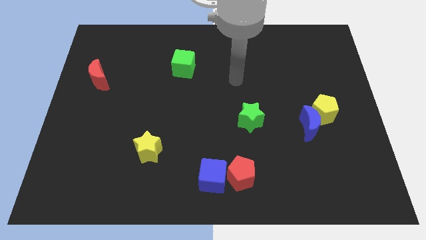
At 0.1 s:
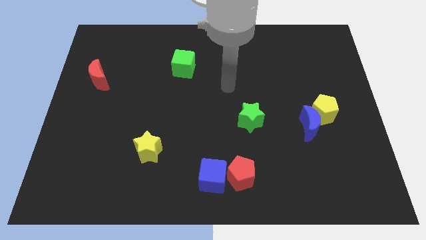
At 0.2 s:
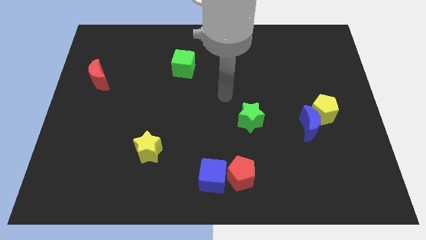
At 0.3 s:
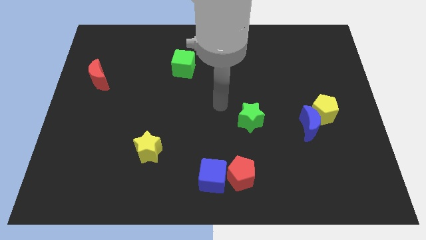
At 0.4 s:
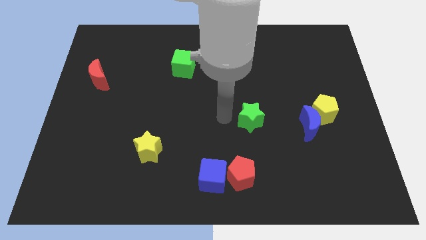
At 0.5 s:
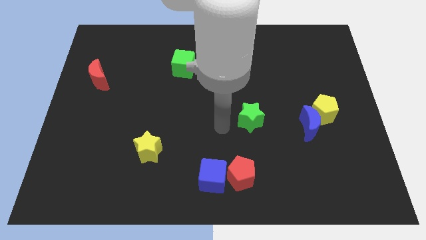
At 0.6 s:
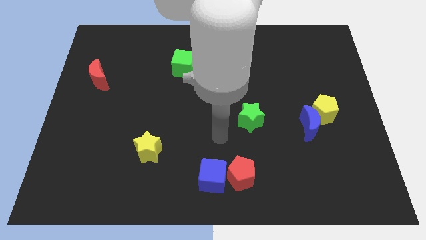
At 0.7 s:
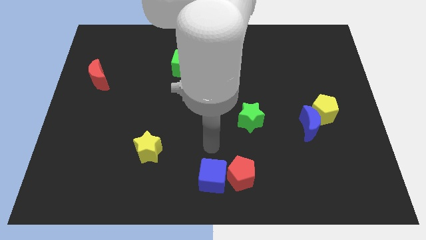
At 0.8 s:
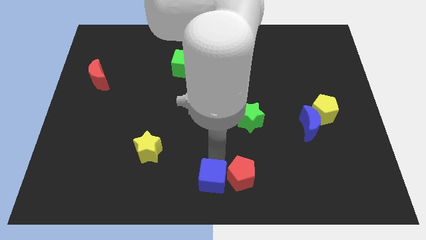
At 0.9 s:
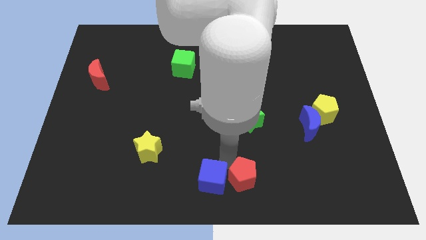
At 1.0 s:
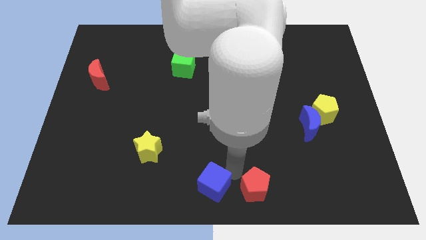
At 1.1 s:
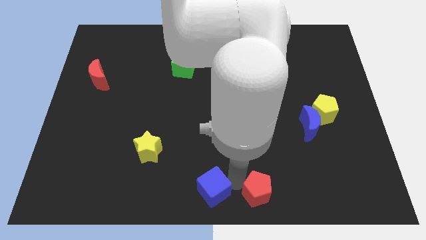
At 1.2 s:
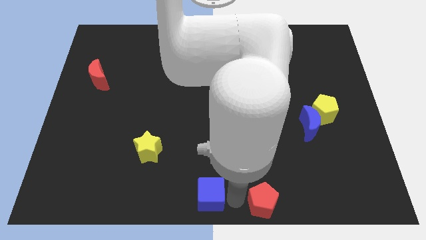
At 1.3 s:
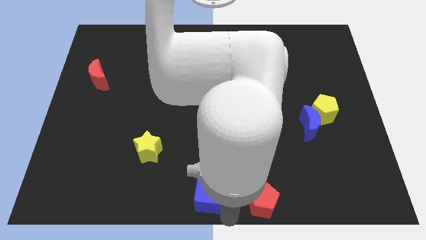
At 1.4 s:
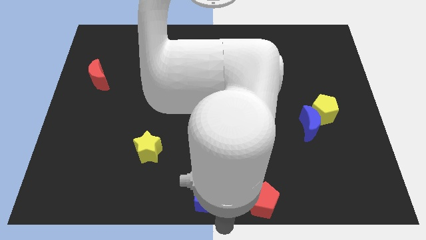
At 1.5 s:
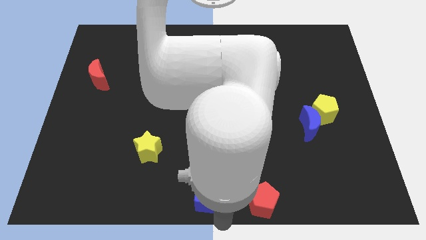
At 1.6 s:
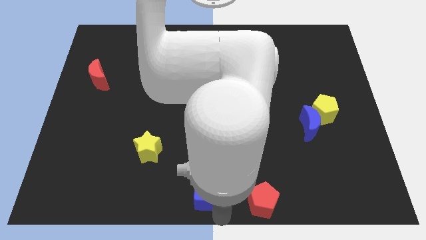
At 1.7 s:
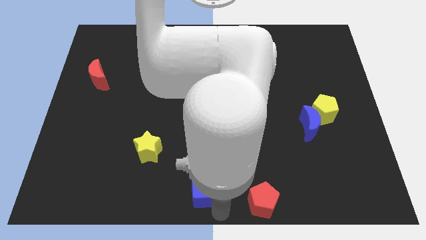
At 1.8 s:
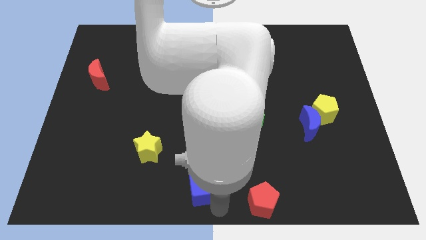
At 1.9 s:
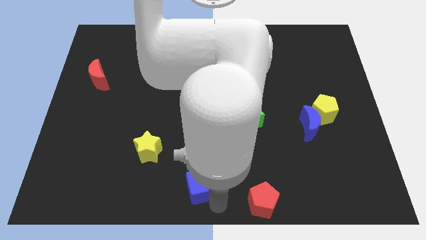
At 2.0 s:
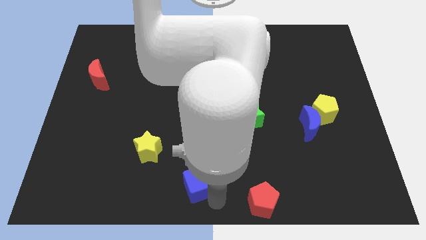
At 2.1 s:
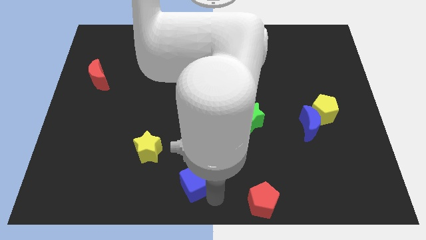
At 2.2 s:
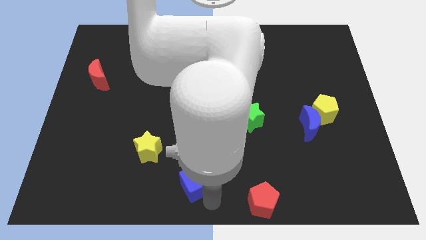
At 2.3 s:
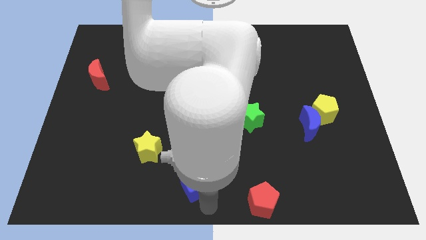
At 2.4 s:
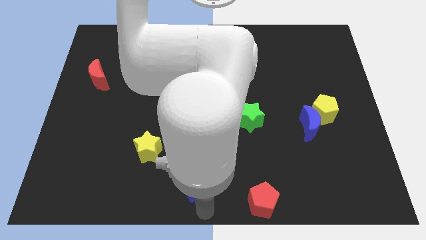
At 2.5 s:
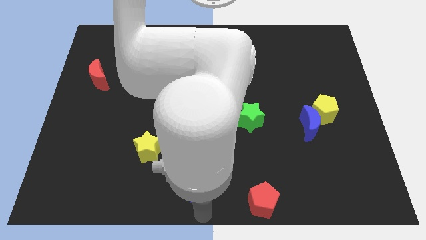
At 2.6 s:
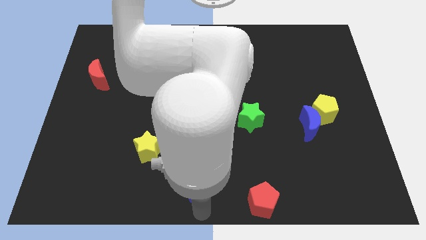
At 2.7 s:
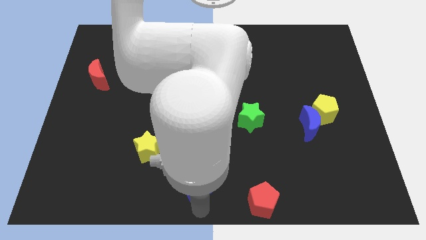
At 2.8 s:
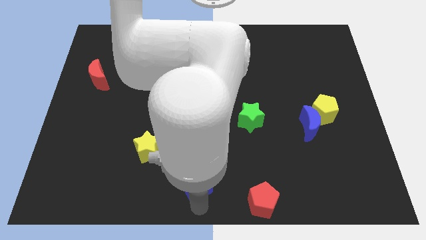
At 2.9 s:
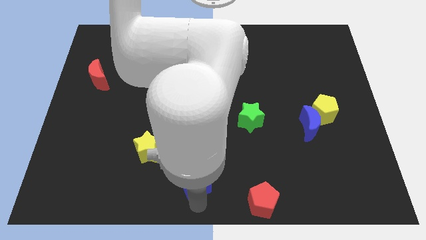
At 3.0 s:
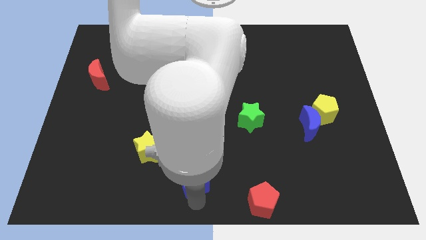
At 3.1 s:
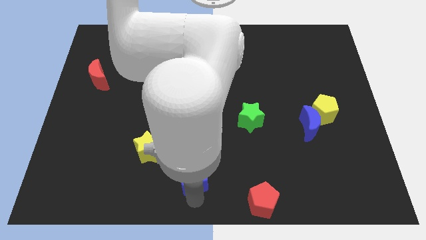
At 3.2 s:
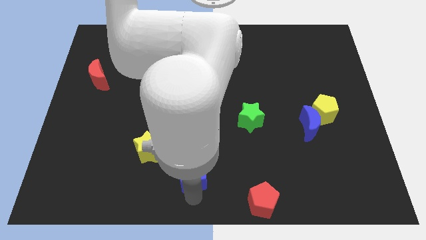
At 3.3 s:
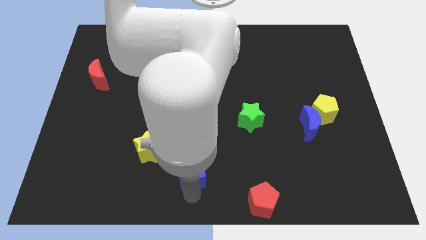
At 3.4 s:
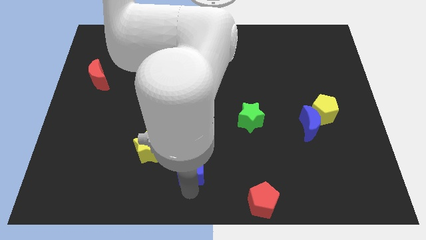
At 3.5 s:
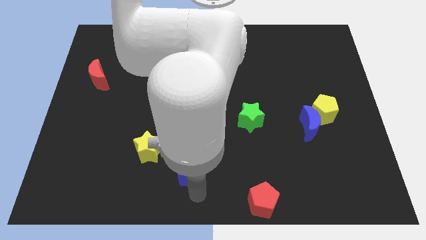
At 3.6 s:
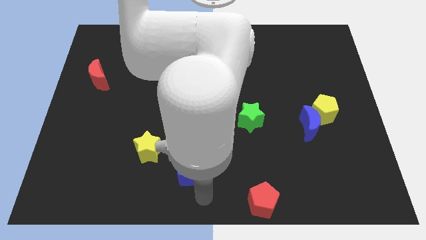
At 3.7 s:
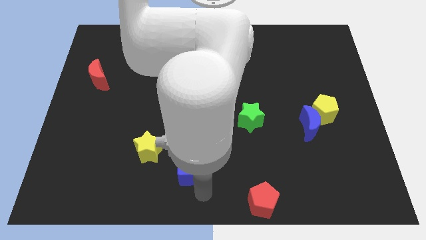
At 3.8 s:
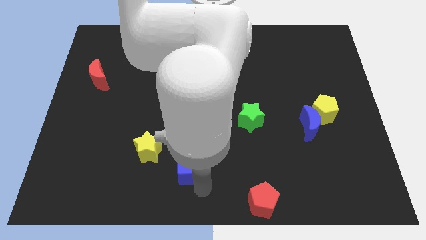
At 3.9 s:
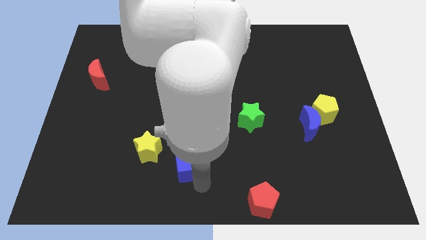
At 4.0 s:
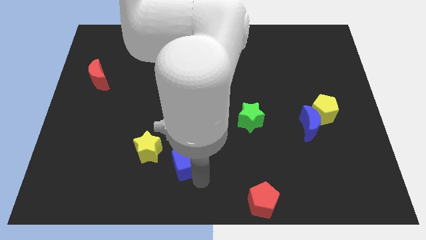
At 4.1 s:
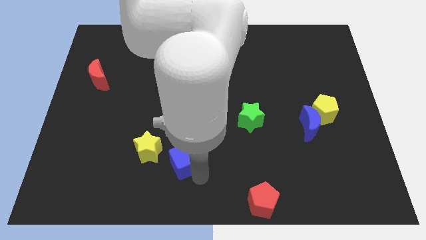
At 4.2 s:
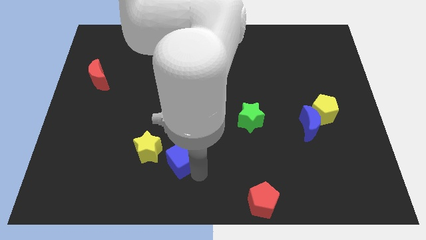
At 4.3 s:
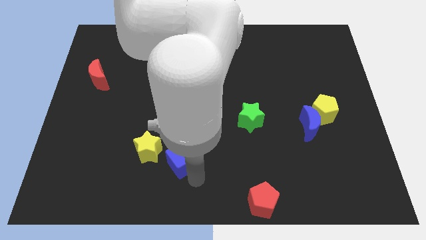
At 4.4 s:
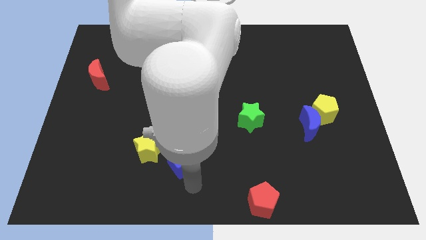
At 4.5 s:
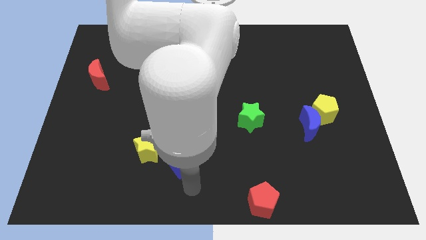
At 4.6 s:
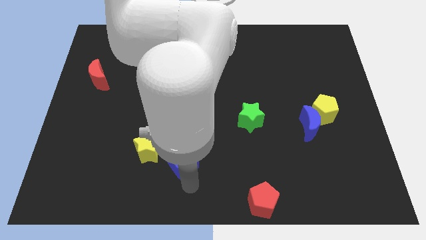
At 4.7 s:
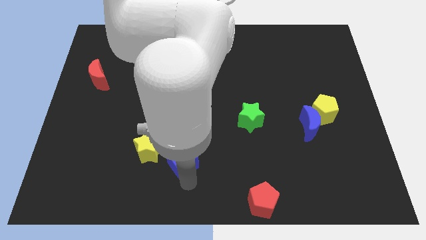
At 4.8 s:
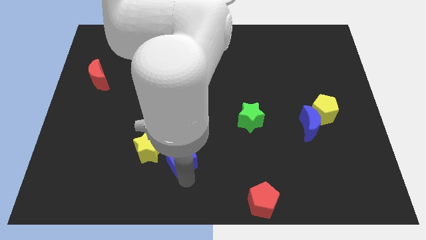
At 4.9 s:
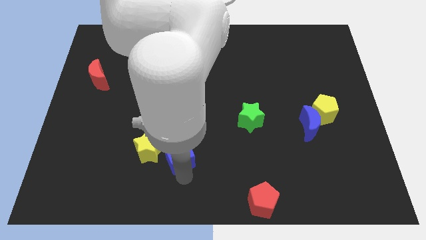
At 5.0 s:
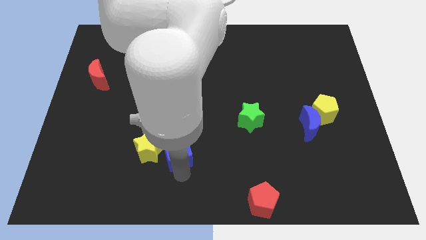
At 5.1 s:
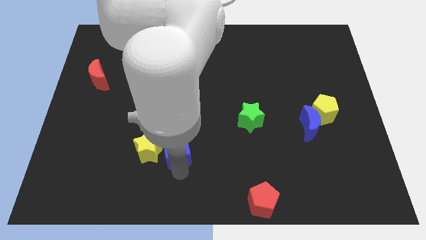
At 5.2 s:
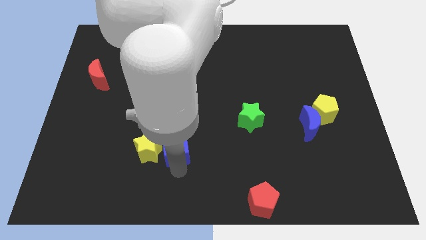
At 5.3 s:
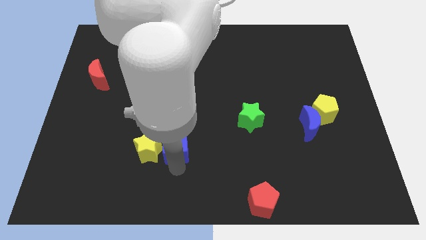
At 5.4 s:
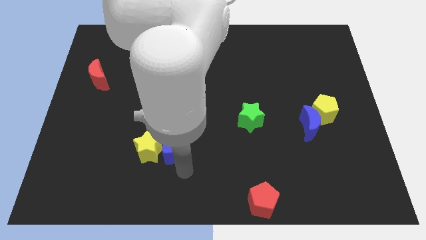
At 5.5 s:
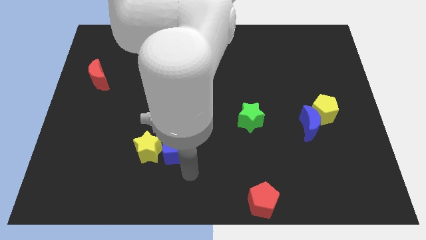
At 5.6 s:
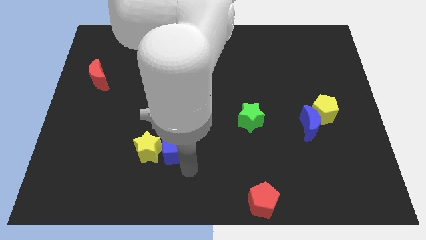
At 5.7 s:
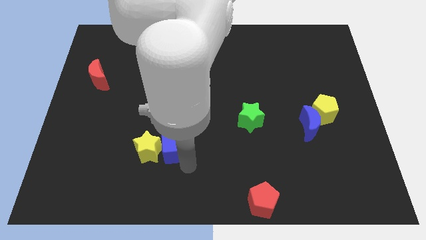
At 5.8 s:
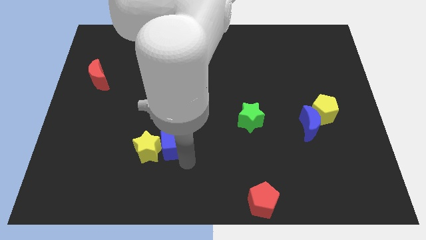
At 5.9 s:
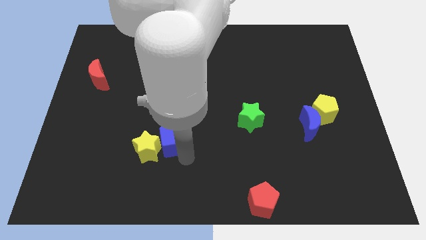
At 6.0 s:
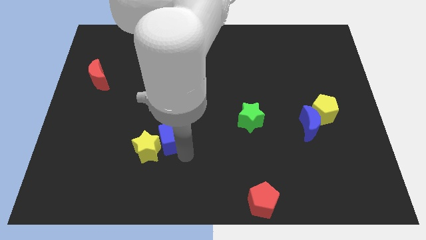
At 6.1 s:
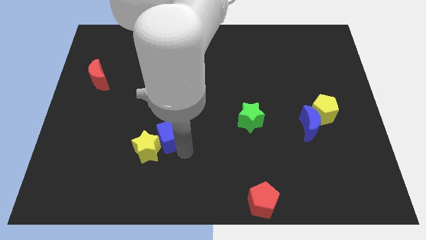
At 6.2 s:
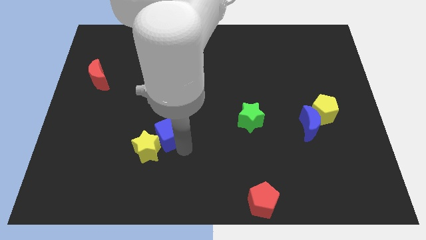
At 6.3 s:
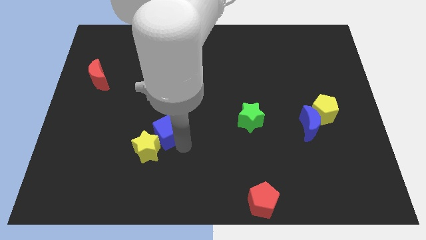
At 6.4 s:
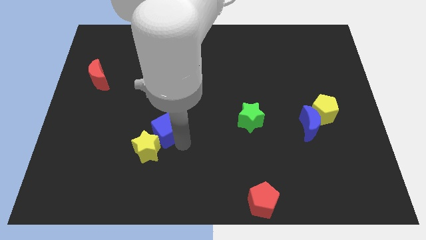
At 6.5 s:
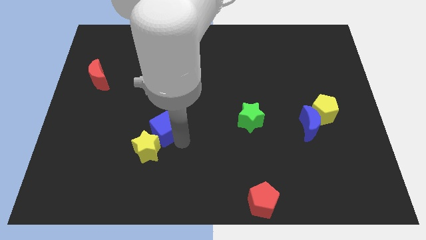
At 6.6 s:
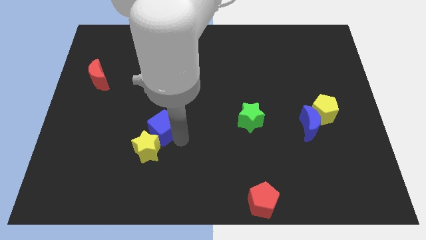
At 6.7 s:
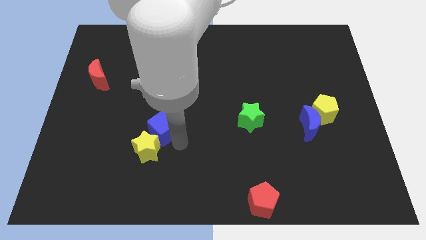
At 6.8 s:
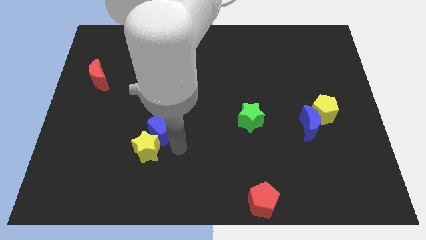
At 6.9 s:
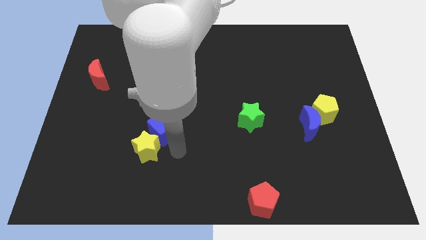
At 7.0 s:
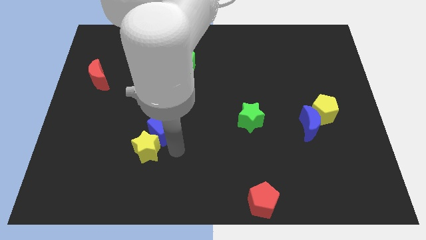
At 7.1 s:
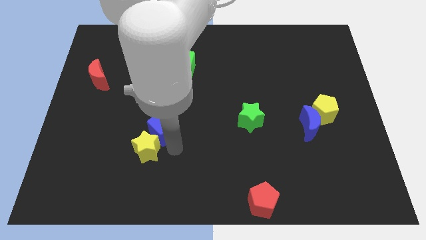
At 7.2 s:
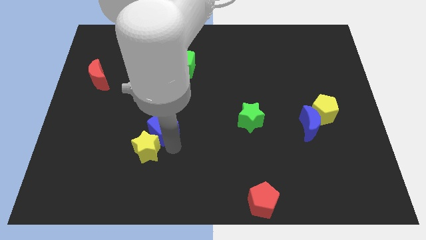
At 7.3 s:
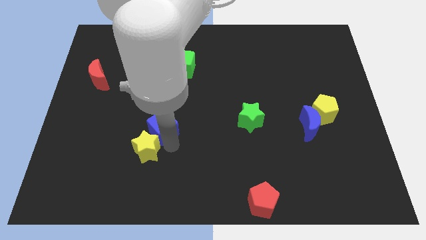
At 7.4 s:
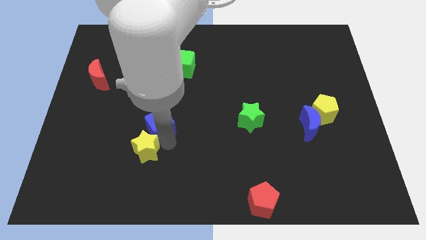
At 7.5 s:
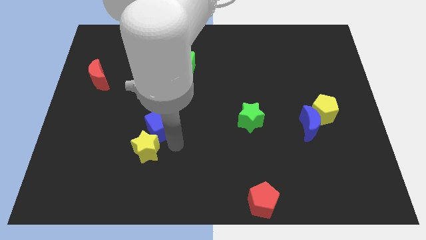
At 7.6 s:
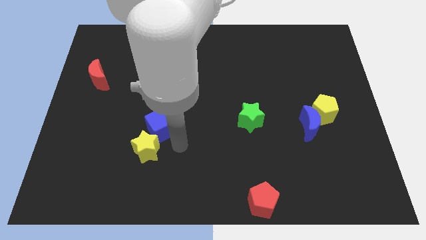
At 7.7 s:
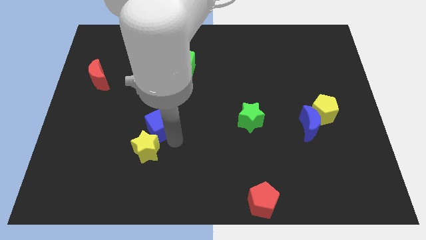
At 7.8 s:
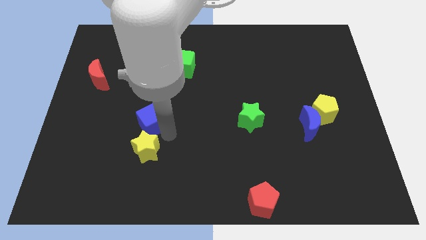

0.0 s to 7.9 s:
move the blue cube upwards and then left
